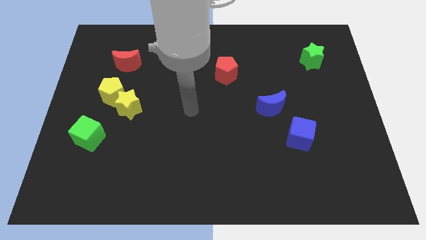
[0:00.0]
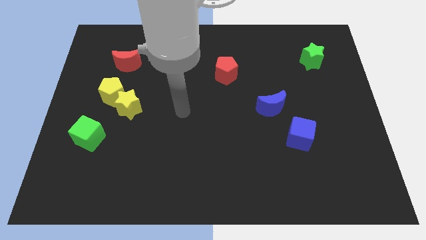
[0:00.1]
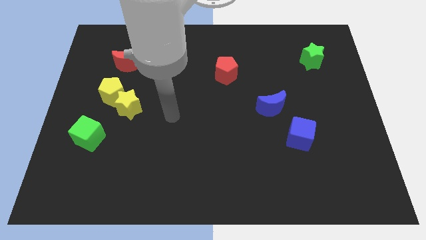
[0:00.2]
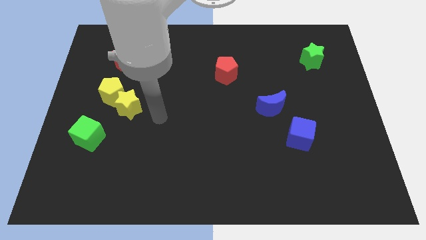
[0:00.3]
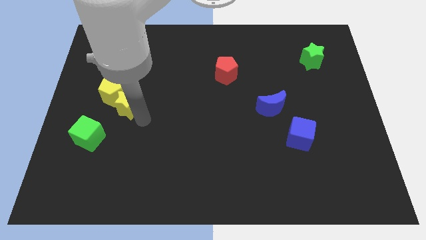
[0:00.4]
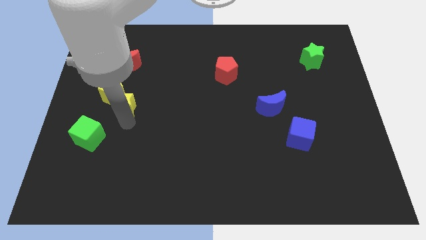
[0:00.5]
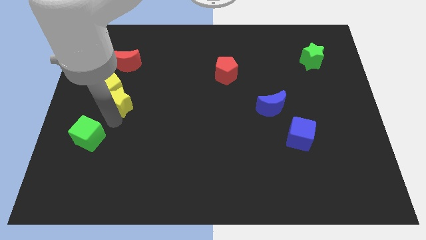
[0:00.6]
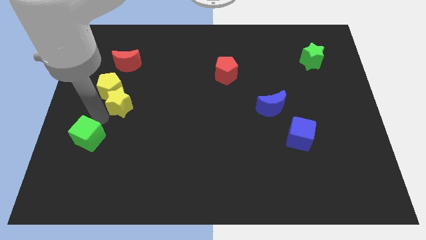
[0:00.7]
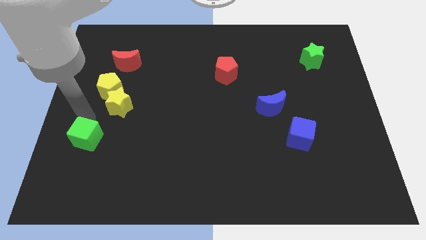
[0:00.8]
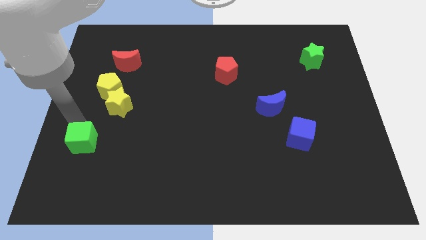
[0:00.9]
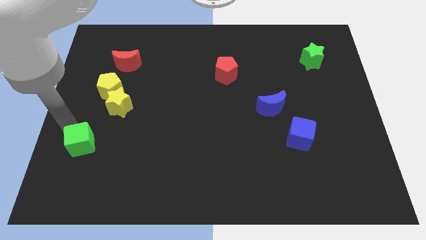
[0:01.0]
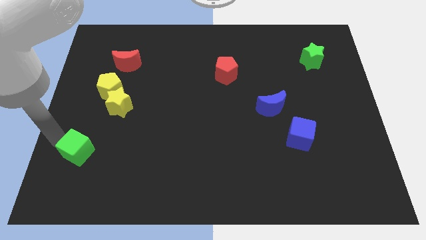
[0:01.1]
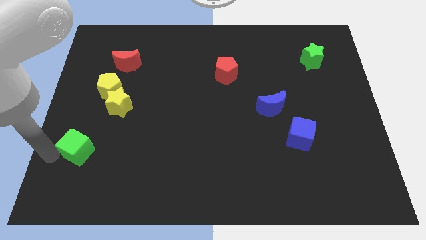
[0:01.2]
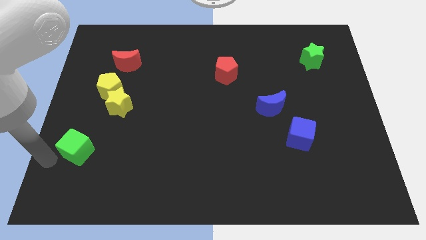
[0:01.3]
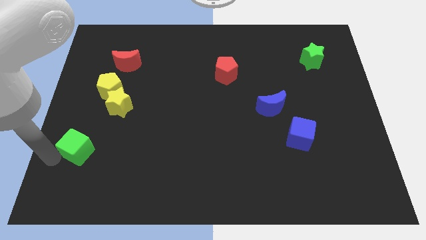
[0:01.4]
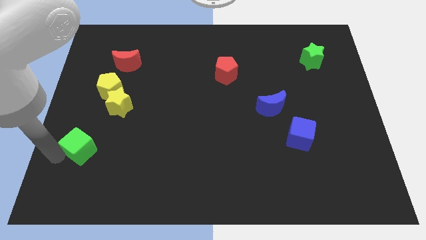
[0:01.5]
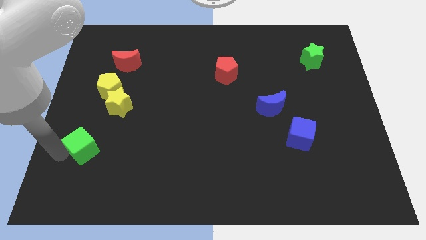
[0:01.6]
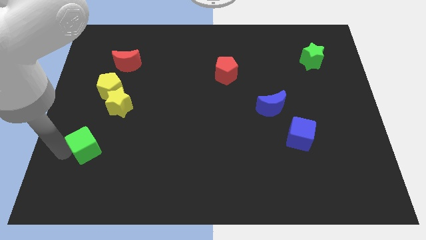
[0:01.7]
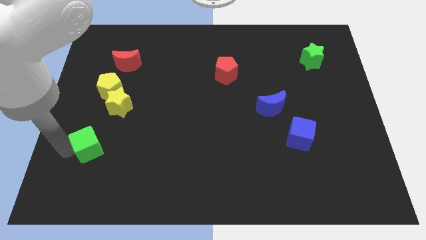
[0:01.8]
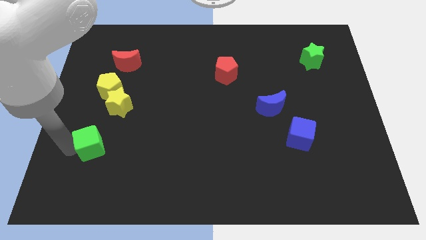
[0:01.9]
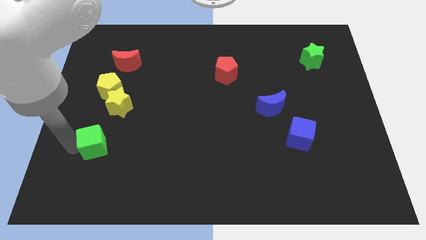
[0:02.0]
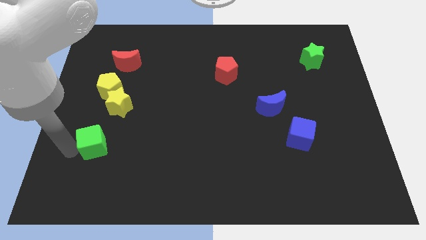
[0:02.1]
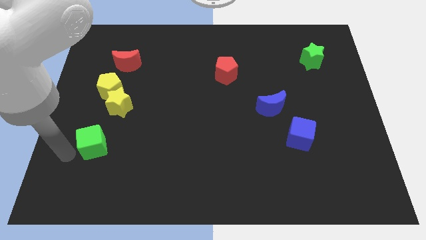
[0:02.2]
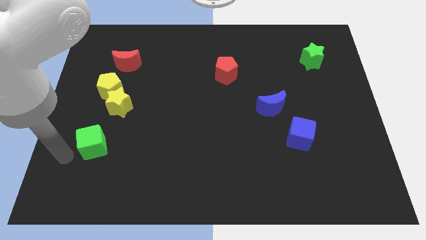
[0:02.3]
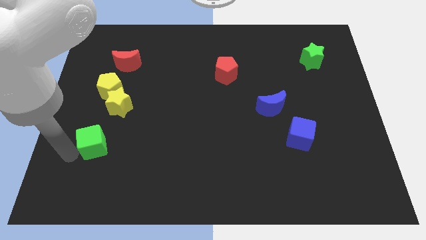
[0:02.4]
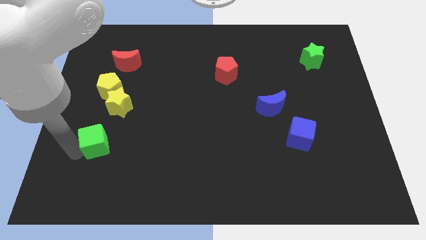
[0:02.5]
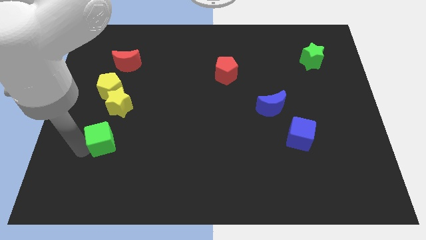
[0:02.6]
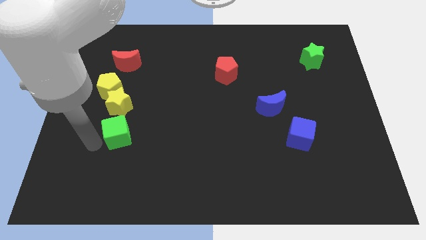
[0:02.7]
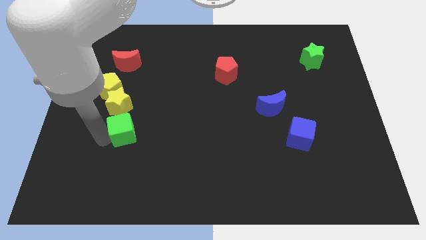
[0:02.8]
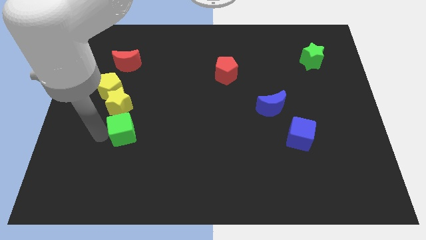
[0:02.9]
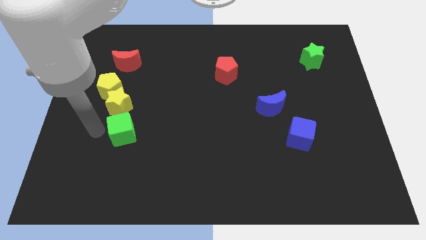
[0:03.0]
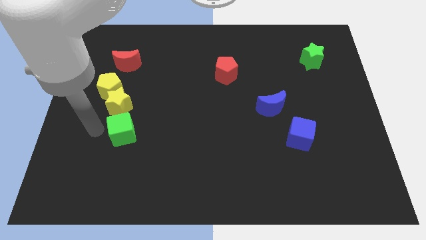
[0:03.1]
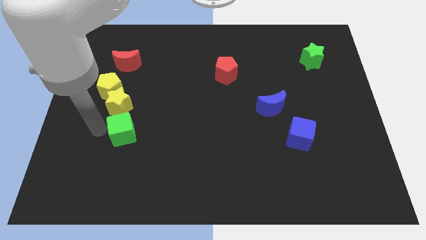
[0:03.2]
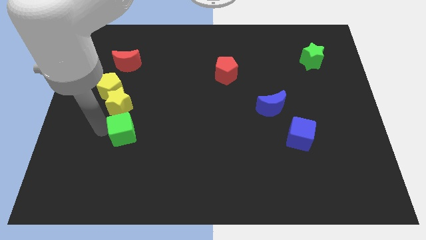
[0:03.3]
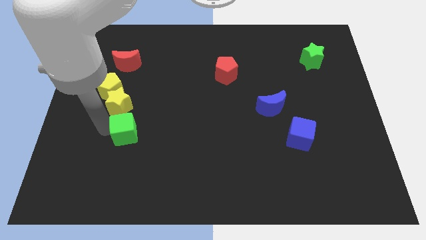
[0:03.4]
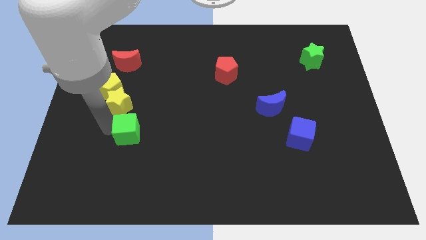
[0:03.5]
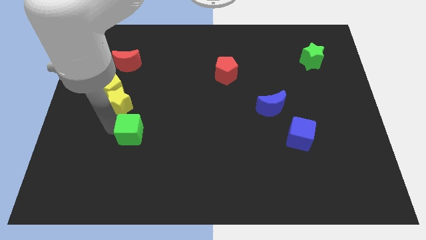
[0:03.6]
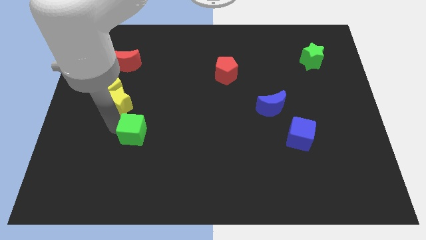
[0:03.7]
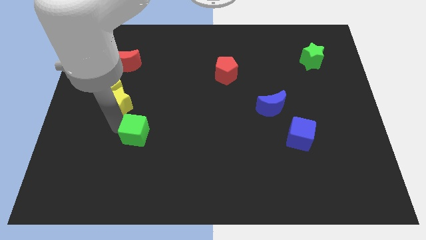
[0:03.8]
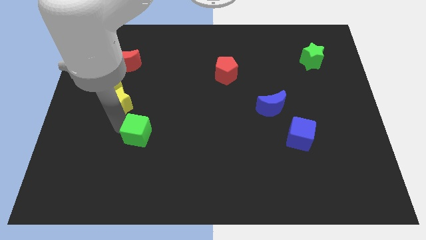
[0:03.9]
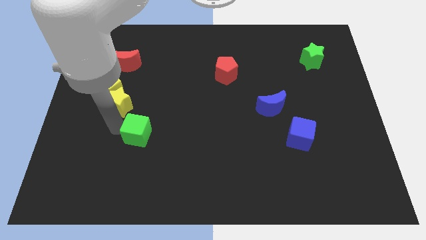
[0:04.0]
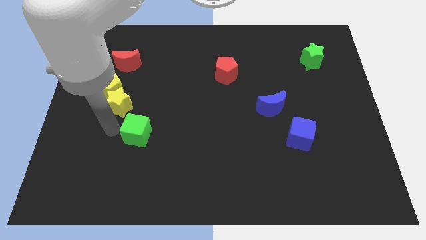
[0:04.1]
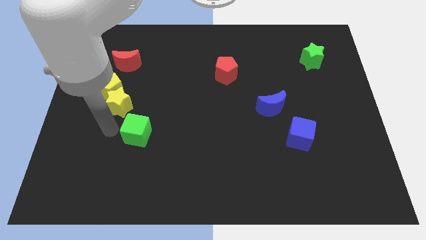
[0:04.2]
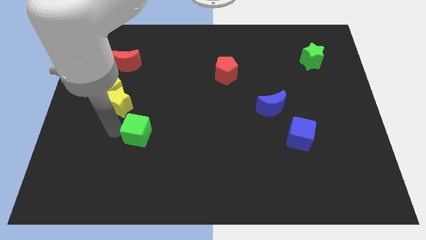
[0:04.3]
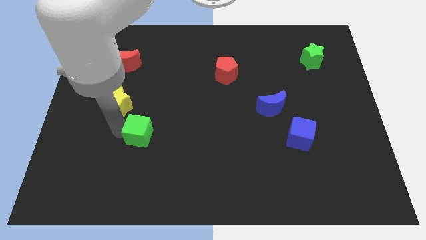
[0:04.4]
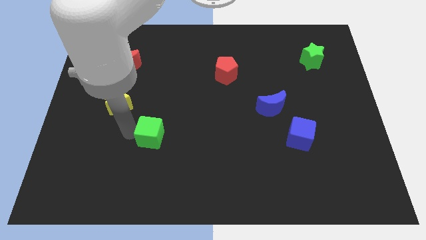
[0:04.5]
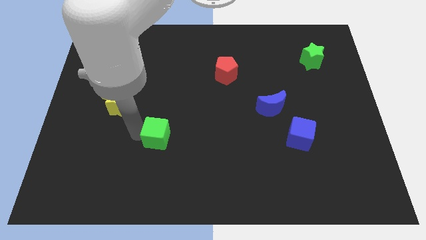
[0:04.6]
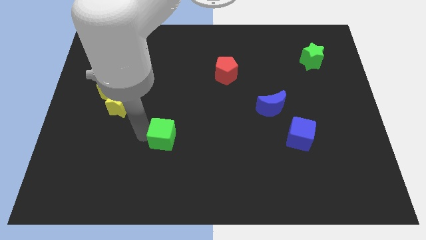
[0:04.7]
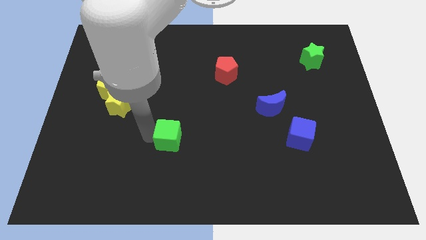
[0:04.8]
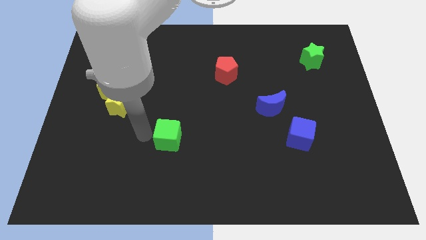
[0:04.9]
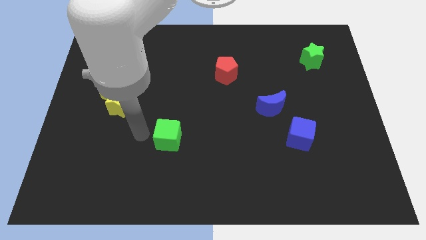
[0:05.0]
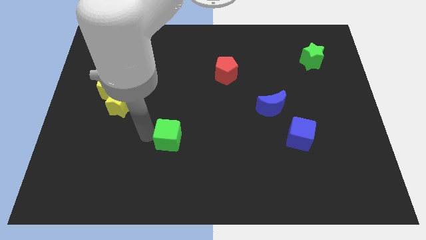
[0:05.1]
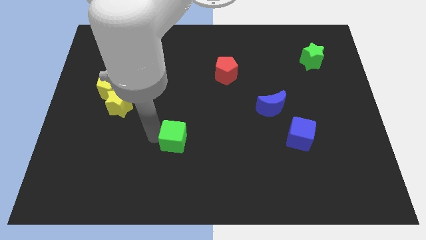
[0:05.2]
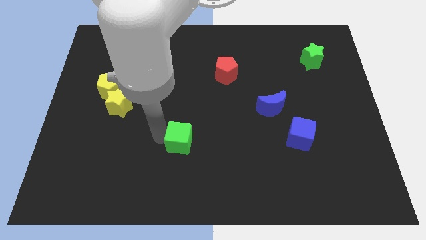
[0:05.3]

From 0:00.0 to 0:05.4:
slide the green cube right

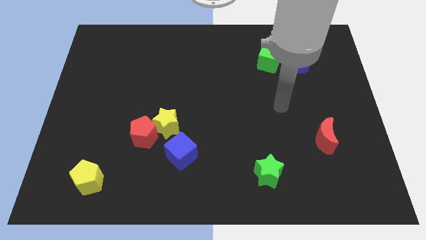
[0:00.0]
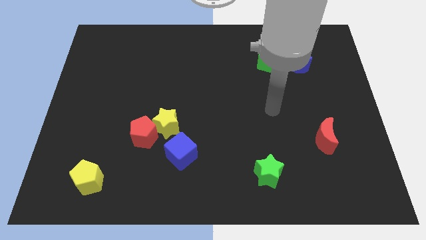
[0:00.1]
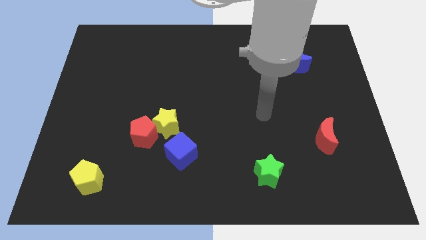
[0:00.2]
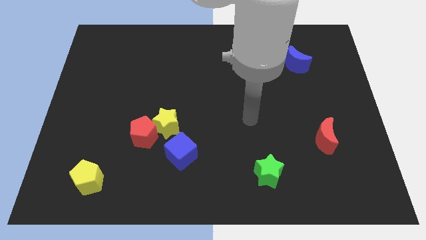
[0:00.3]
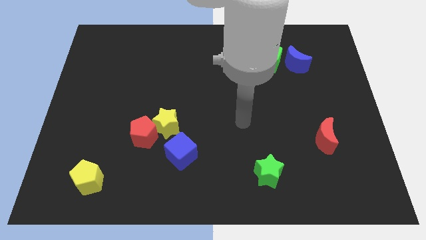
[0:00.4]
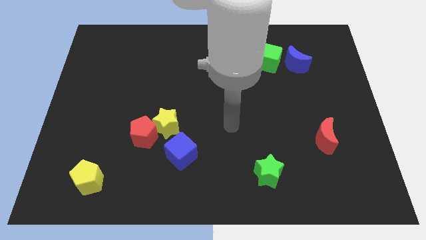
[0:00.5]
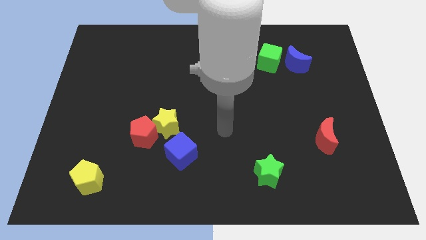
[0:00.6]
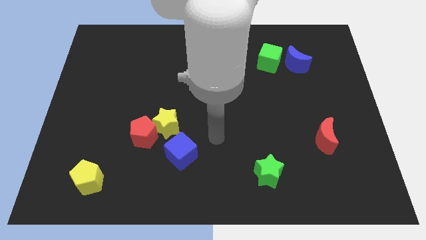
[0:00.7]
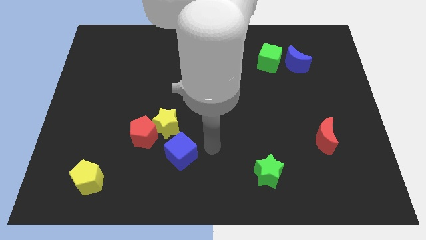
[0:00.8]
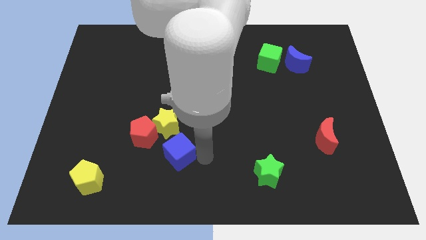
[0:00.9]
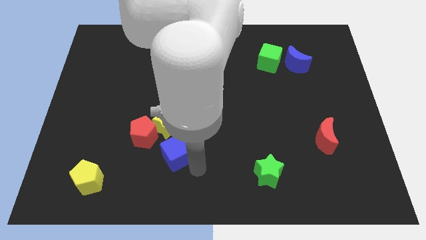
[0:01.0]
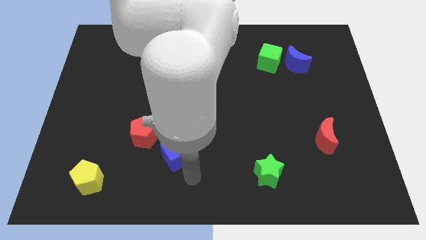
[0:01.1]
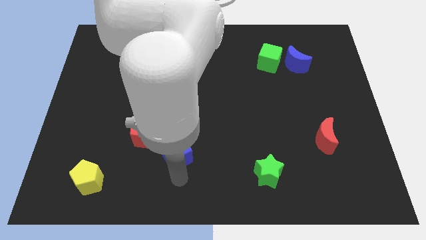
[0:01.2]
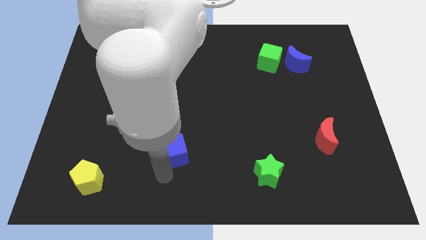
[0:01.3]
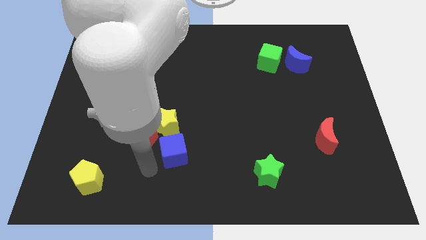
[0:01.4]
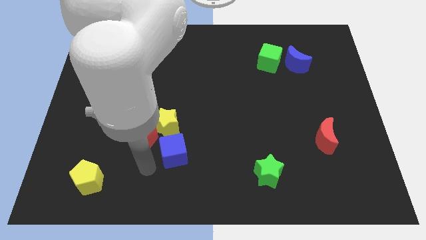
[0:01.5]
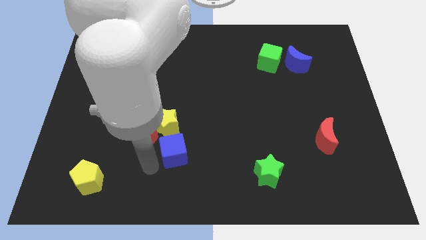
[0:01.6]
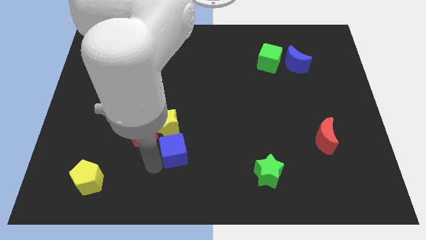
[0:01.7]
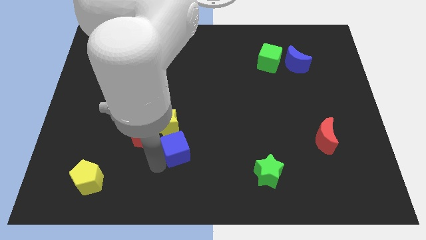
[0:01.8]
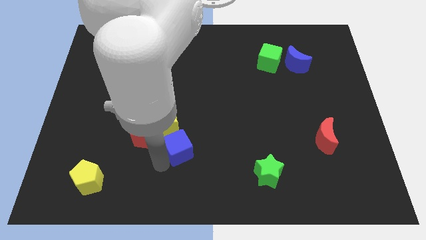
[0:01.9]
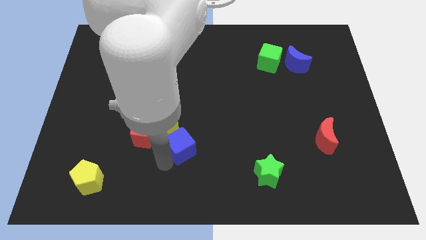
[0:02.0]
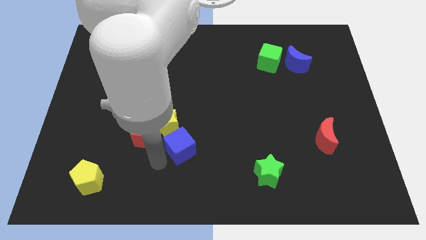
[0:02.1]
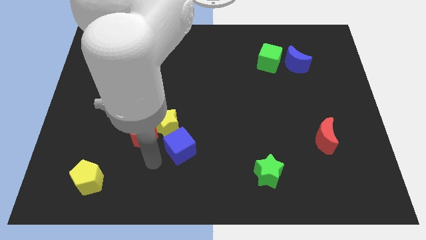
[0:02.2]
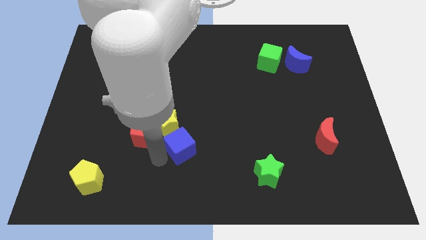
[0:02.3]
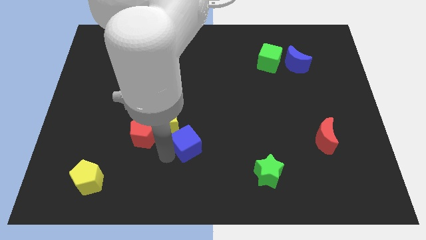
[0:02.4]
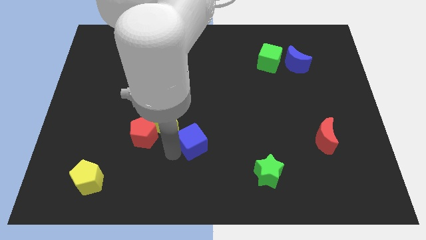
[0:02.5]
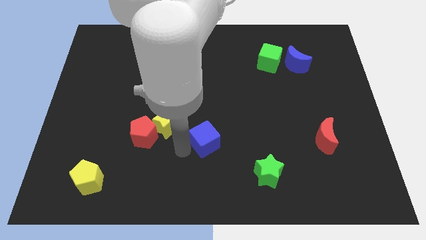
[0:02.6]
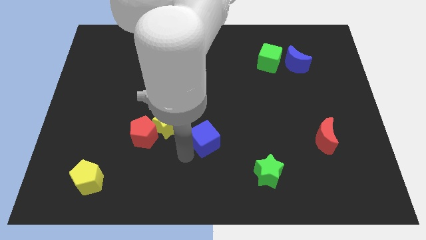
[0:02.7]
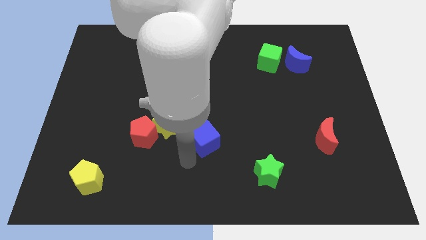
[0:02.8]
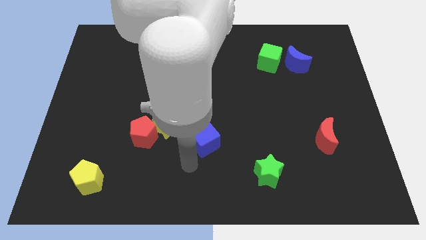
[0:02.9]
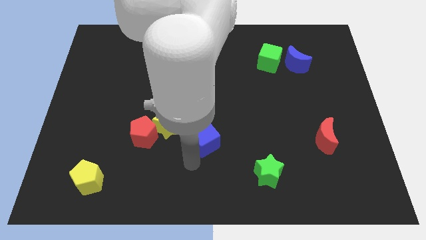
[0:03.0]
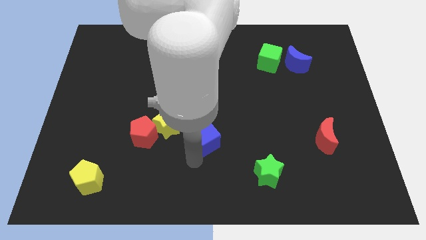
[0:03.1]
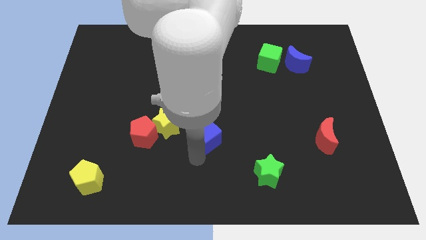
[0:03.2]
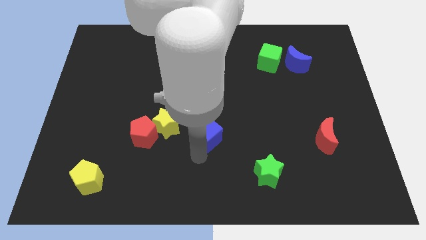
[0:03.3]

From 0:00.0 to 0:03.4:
move the blue cube up and right a bit
